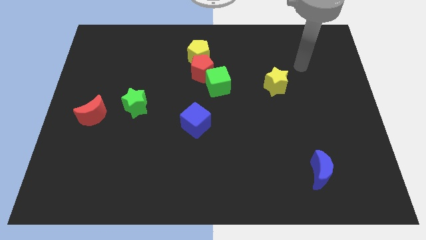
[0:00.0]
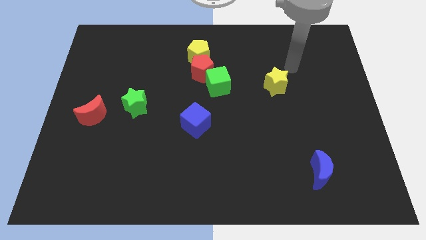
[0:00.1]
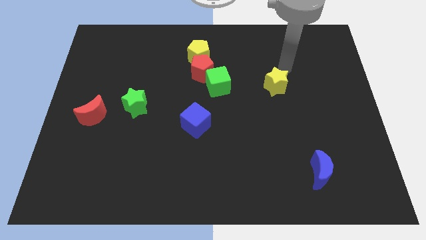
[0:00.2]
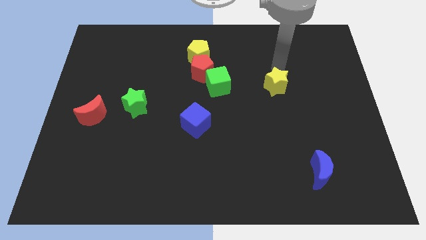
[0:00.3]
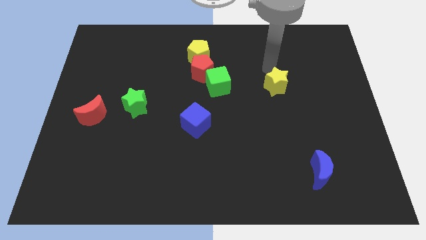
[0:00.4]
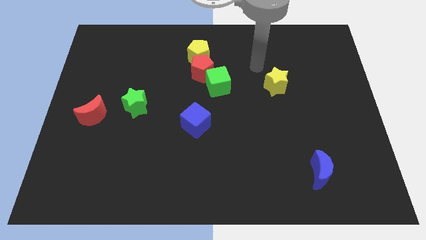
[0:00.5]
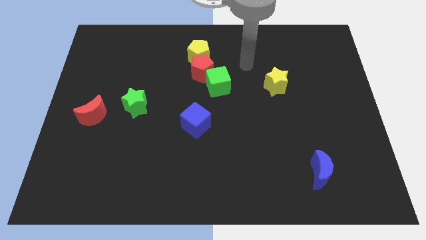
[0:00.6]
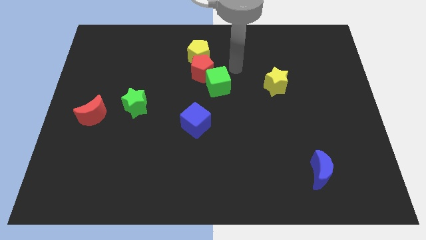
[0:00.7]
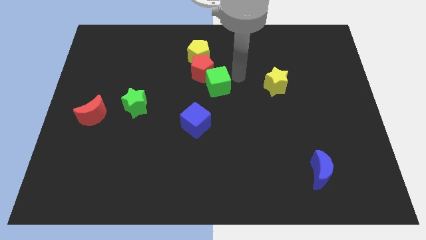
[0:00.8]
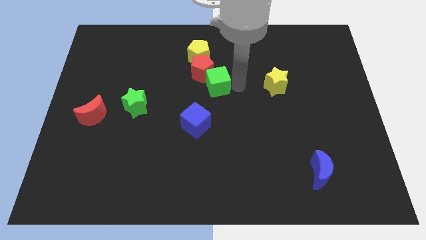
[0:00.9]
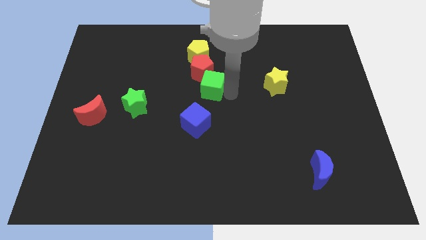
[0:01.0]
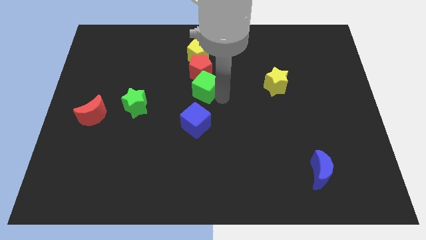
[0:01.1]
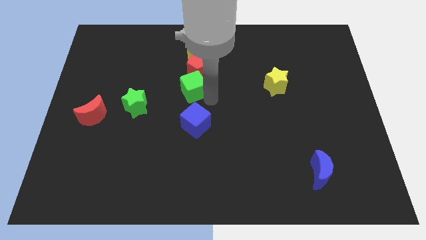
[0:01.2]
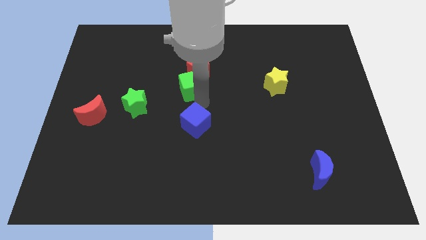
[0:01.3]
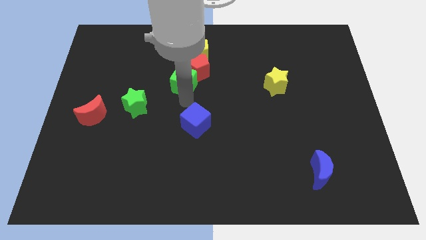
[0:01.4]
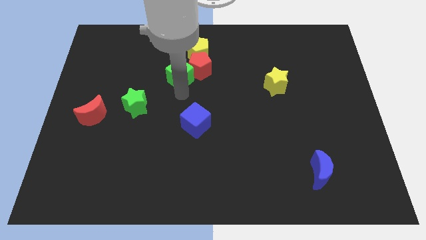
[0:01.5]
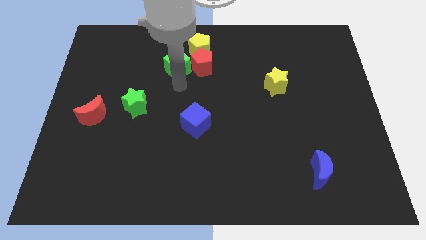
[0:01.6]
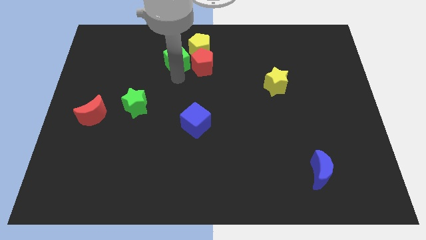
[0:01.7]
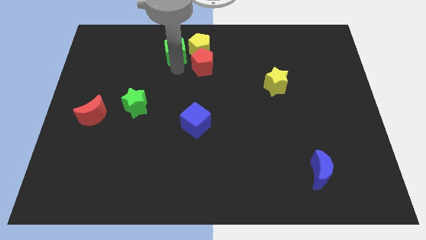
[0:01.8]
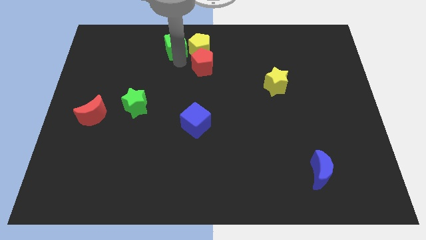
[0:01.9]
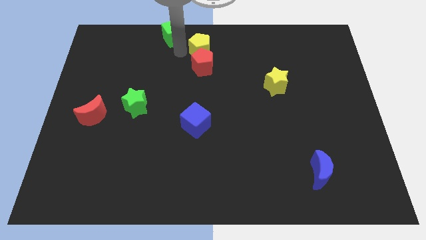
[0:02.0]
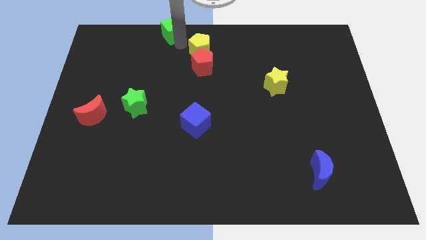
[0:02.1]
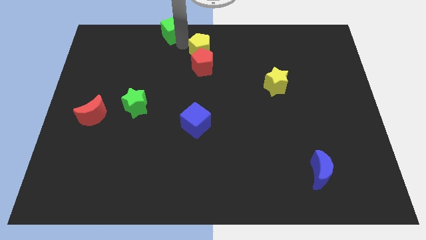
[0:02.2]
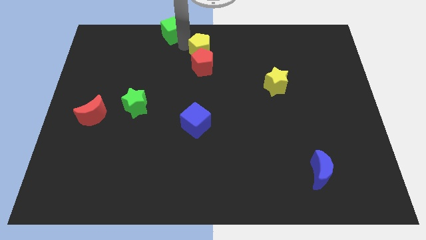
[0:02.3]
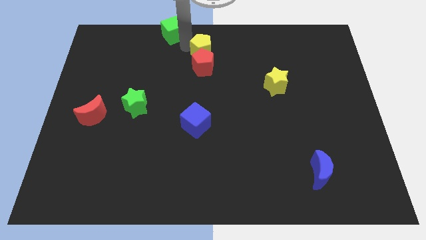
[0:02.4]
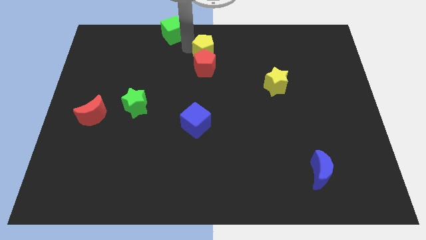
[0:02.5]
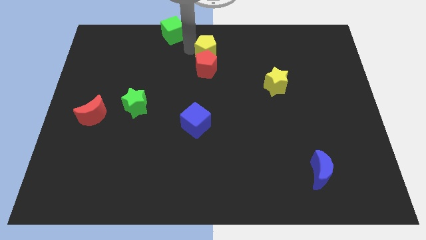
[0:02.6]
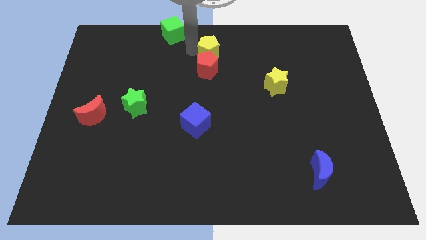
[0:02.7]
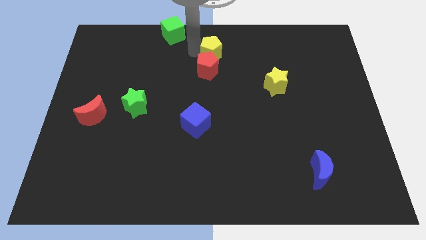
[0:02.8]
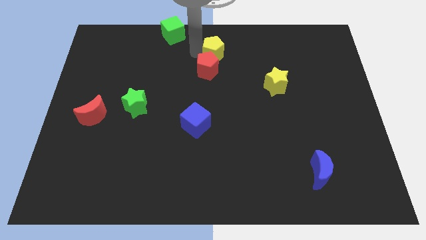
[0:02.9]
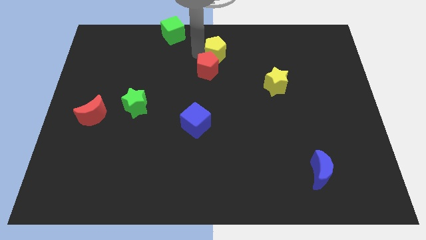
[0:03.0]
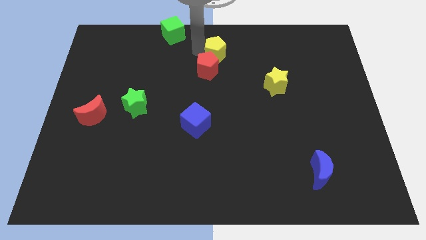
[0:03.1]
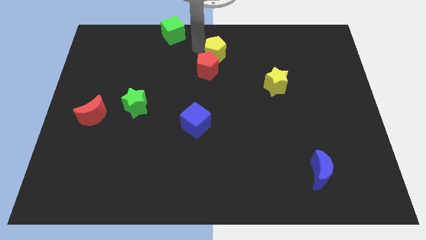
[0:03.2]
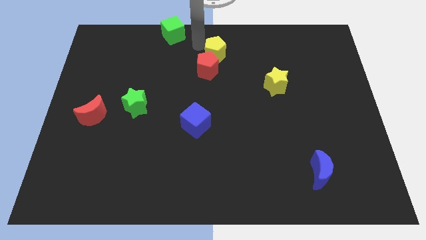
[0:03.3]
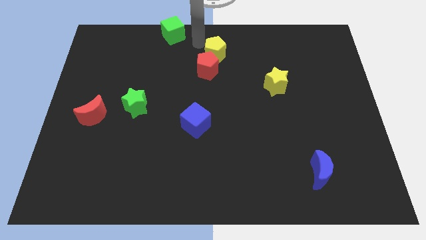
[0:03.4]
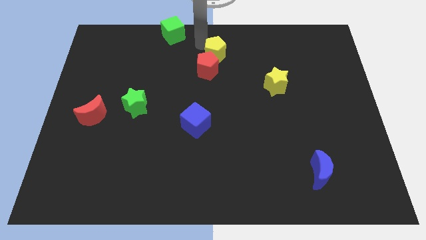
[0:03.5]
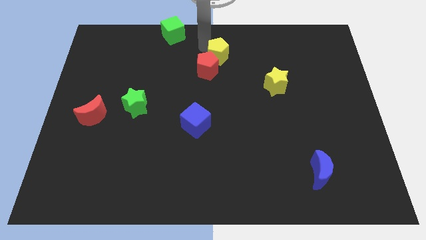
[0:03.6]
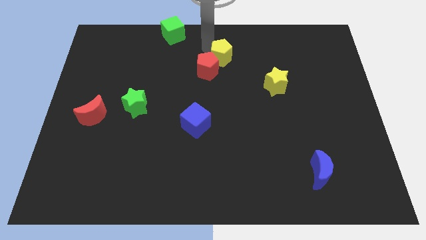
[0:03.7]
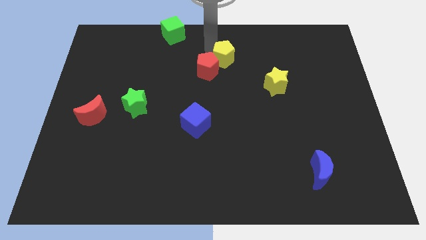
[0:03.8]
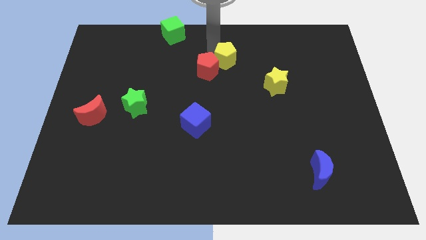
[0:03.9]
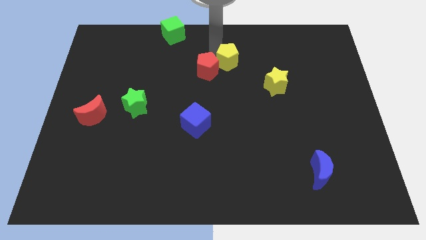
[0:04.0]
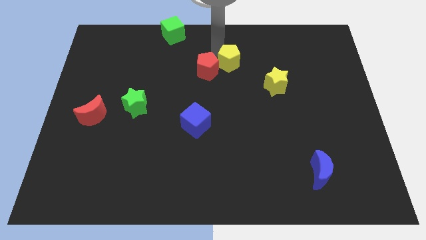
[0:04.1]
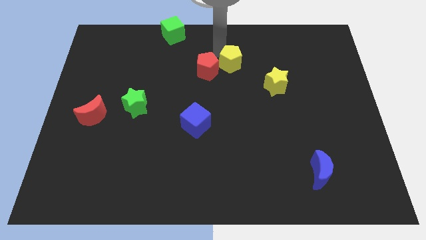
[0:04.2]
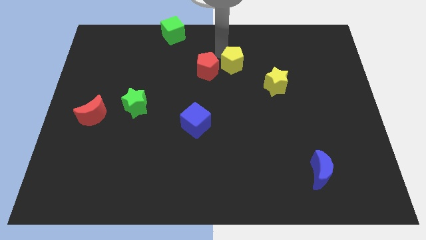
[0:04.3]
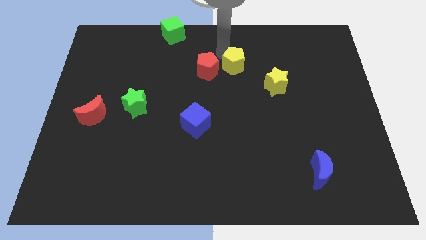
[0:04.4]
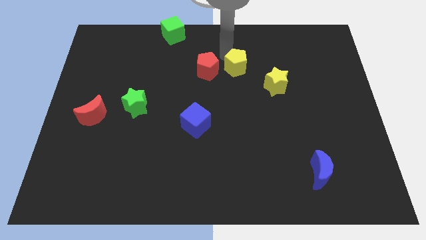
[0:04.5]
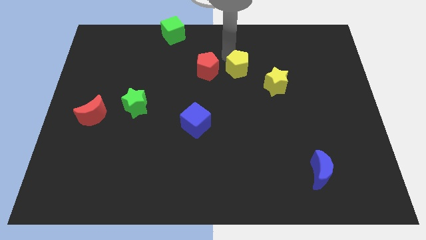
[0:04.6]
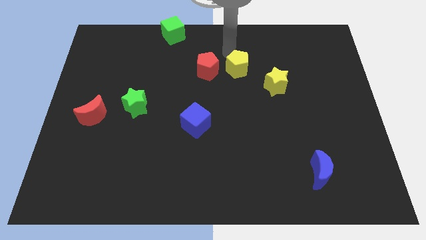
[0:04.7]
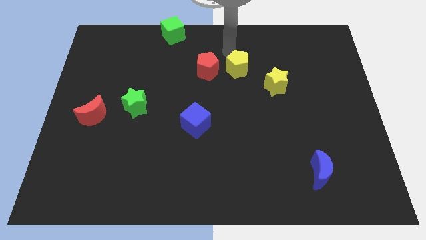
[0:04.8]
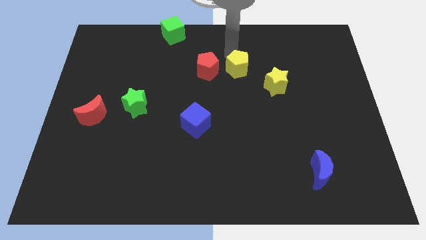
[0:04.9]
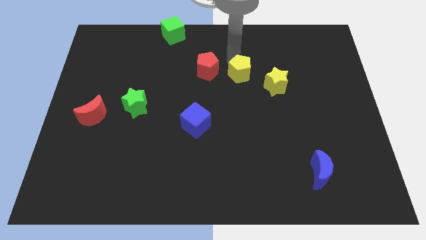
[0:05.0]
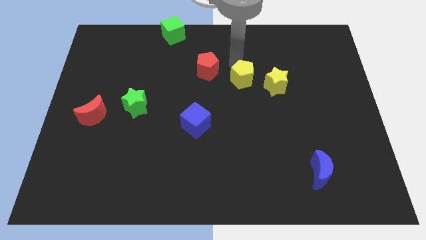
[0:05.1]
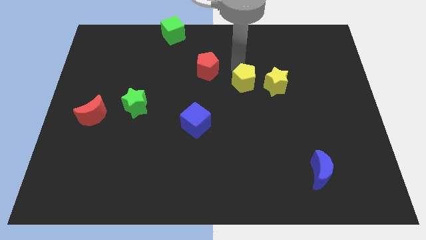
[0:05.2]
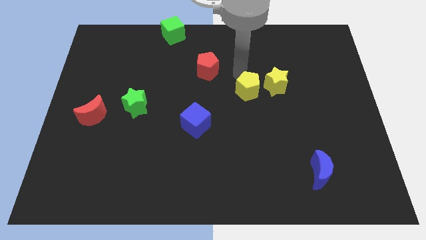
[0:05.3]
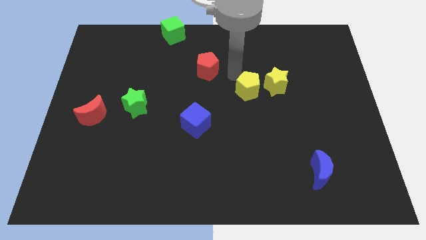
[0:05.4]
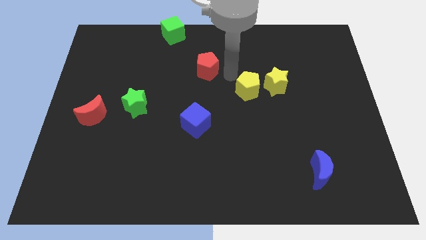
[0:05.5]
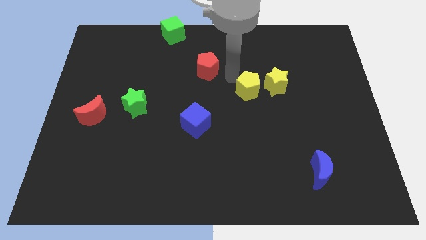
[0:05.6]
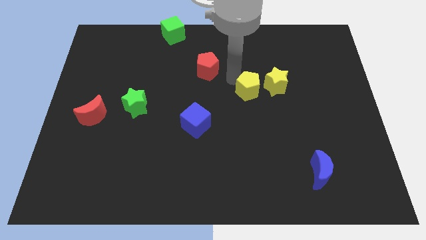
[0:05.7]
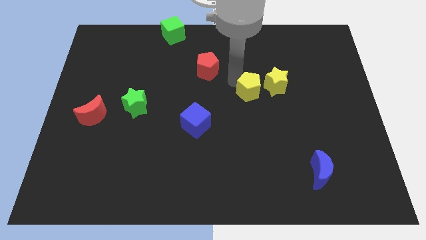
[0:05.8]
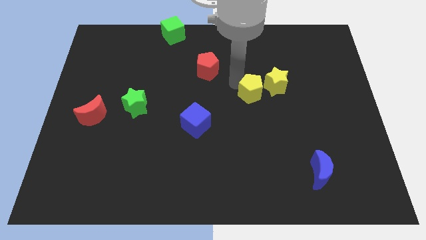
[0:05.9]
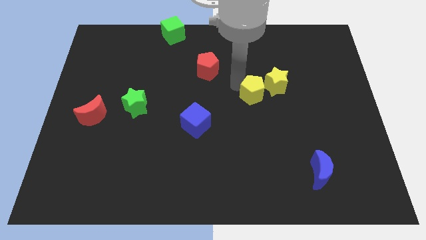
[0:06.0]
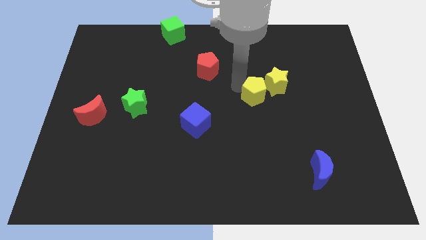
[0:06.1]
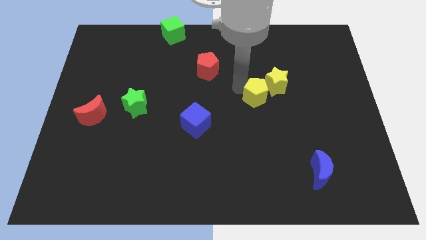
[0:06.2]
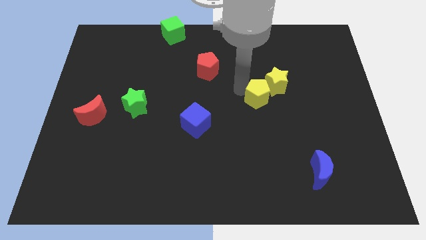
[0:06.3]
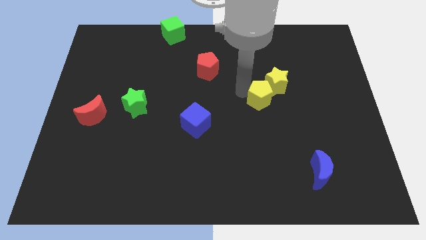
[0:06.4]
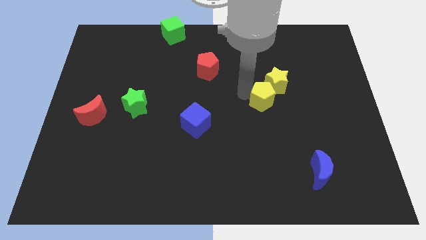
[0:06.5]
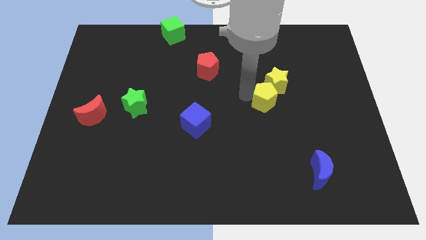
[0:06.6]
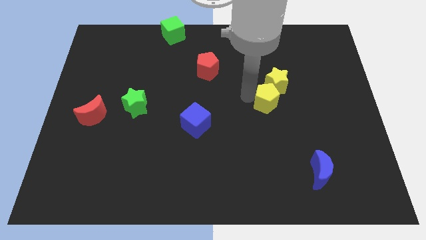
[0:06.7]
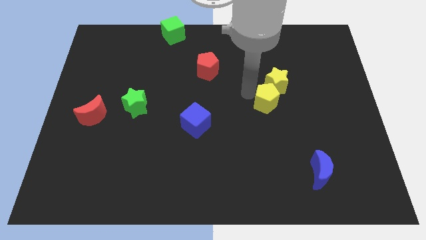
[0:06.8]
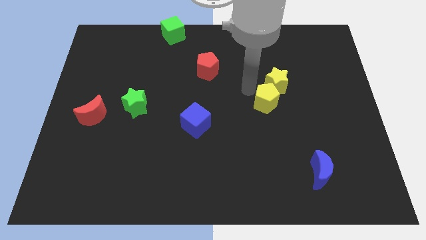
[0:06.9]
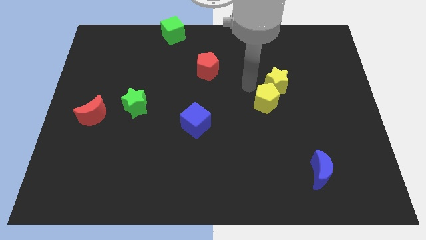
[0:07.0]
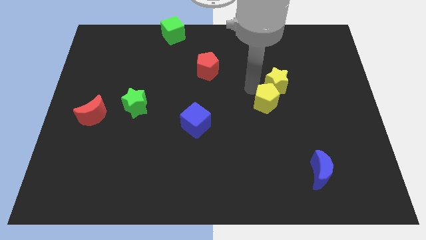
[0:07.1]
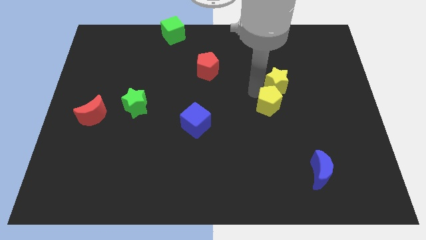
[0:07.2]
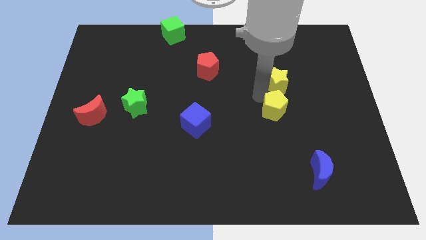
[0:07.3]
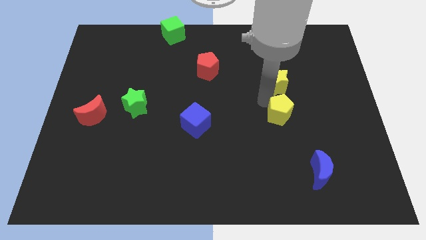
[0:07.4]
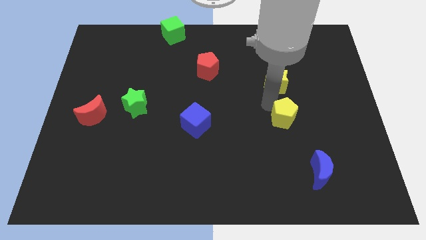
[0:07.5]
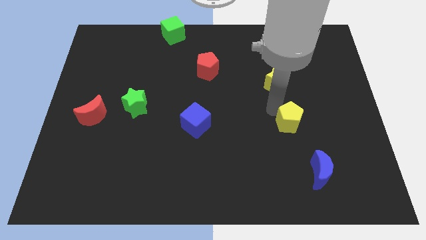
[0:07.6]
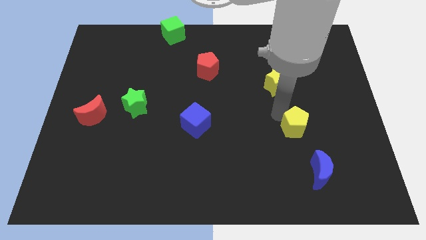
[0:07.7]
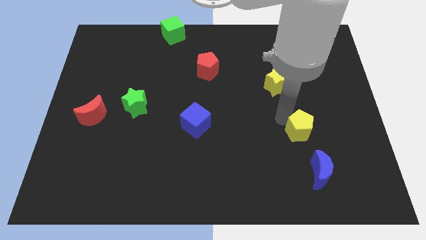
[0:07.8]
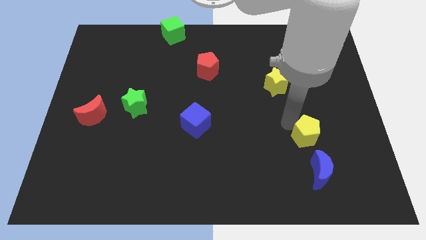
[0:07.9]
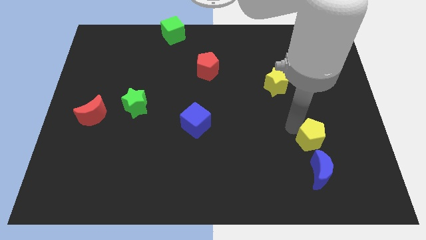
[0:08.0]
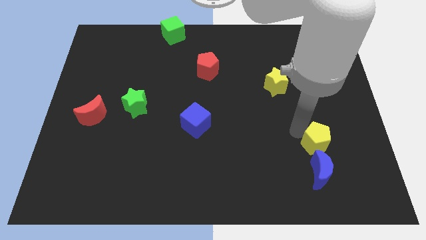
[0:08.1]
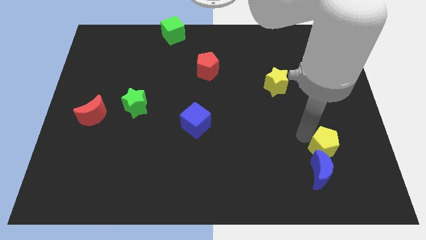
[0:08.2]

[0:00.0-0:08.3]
push the yellow pentagon to the top right of the blue moon
